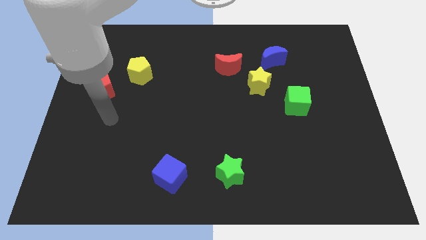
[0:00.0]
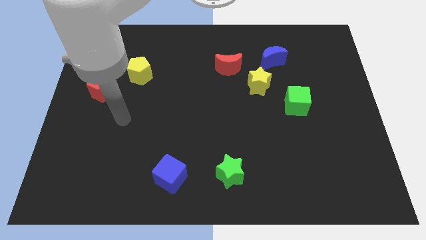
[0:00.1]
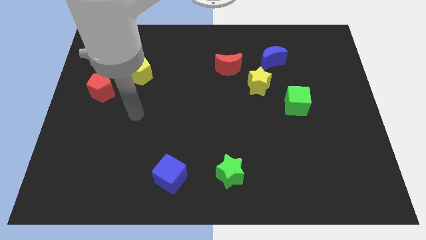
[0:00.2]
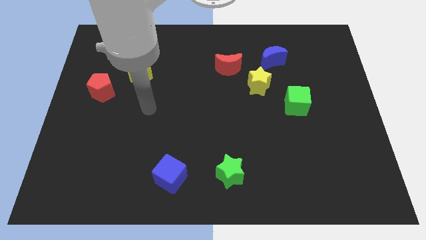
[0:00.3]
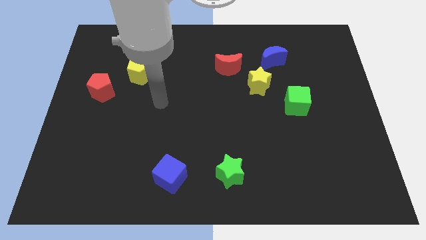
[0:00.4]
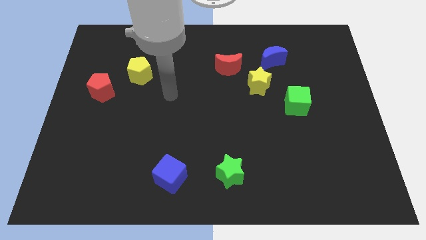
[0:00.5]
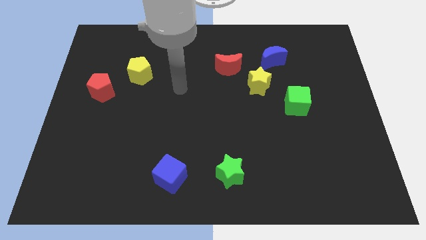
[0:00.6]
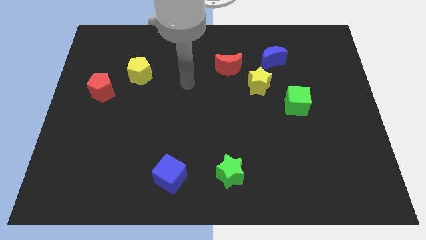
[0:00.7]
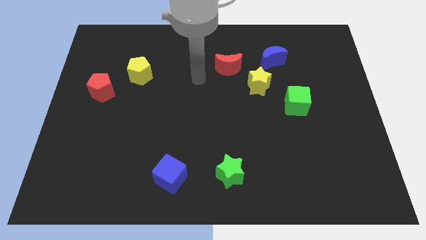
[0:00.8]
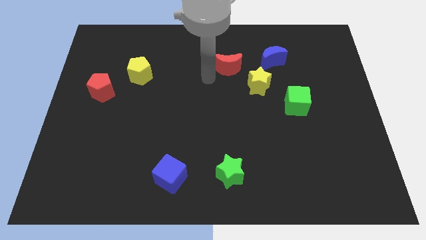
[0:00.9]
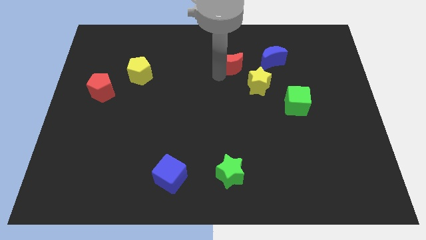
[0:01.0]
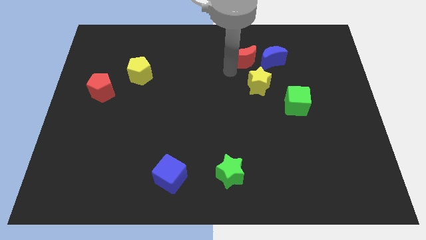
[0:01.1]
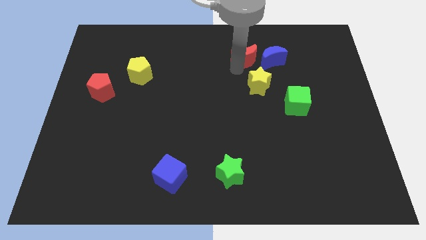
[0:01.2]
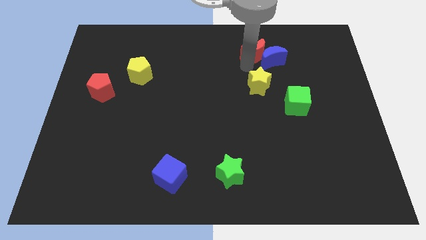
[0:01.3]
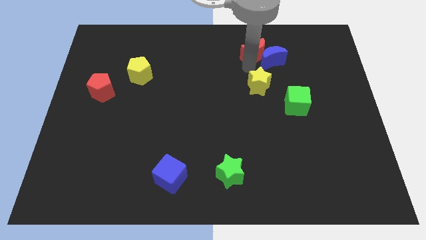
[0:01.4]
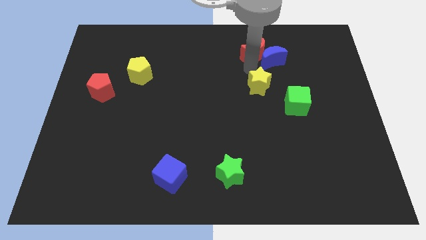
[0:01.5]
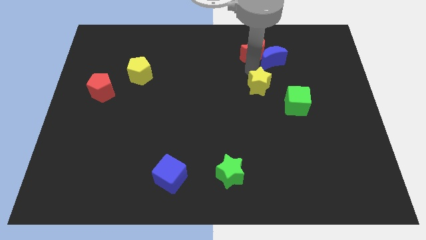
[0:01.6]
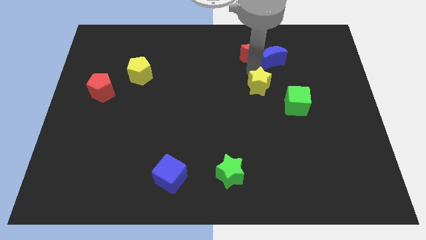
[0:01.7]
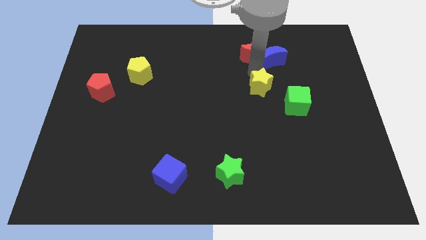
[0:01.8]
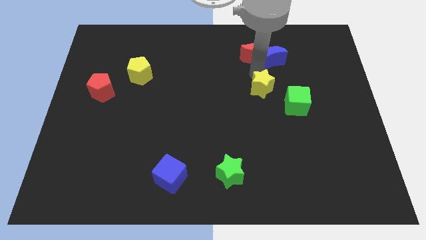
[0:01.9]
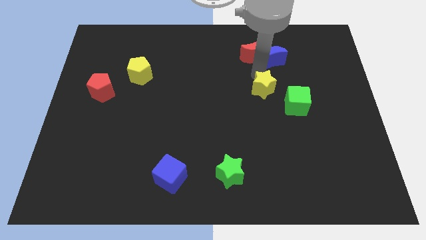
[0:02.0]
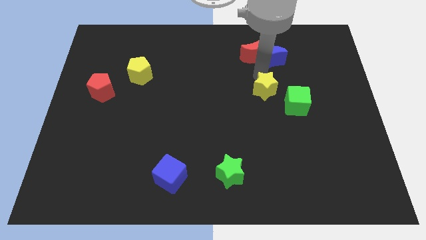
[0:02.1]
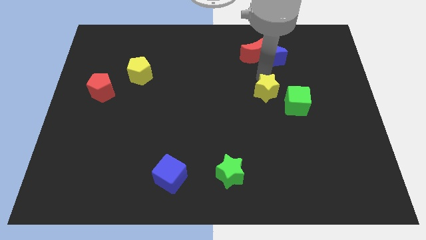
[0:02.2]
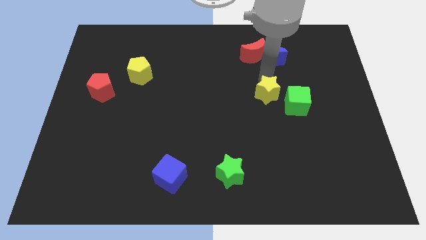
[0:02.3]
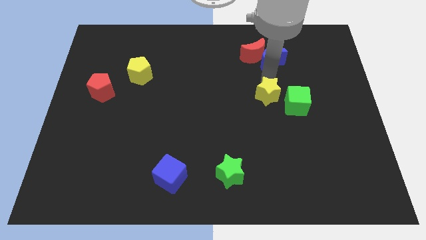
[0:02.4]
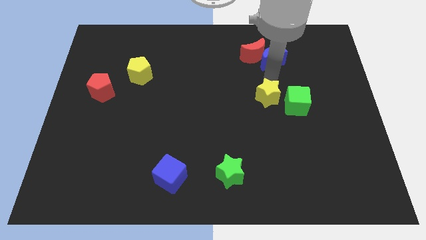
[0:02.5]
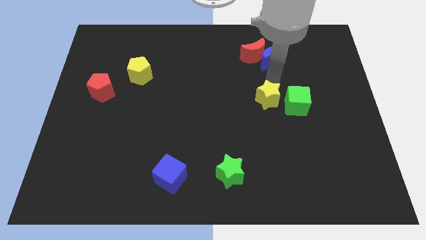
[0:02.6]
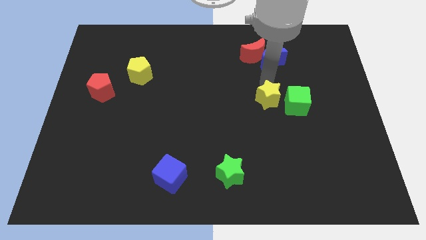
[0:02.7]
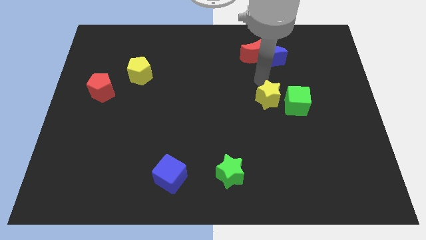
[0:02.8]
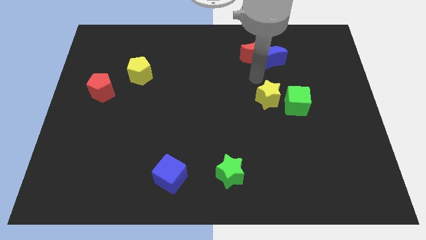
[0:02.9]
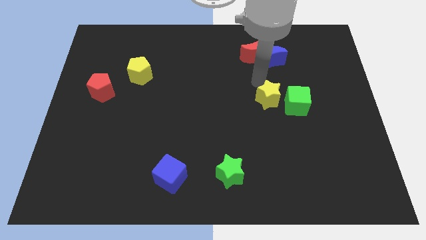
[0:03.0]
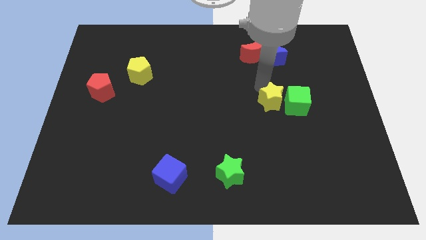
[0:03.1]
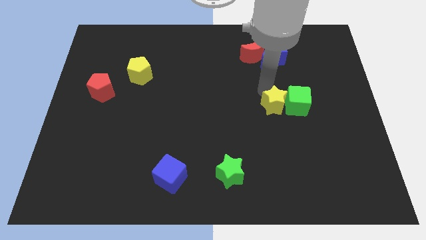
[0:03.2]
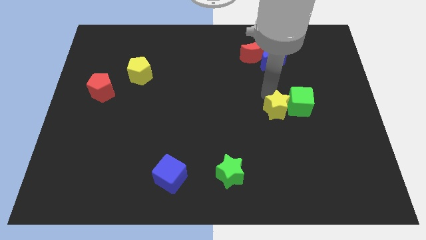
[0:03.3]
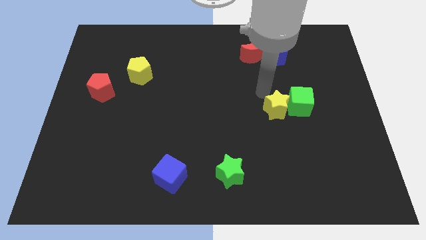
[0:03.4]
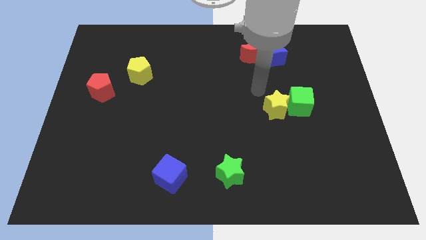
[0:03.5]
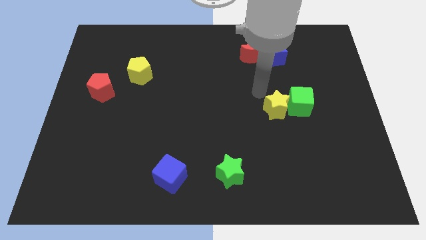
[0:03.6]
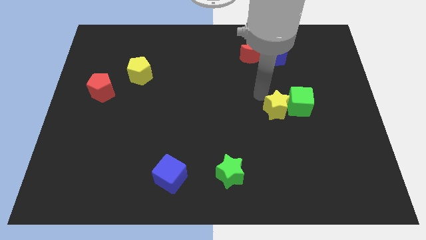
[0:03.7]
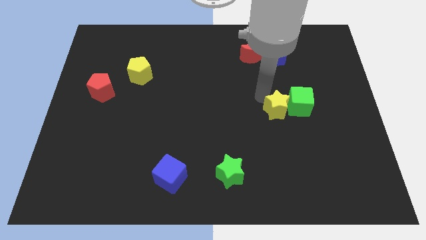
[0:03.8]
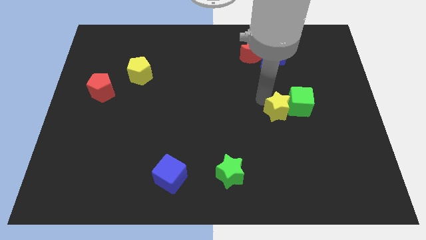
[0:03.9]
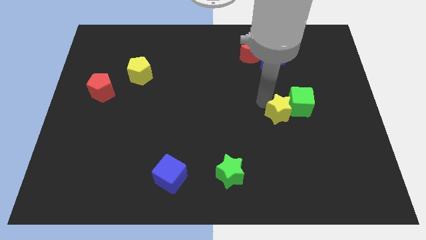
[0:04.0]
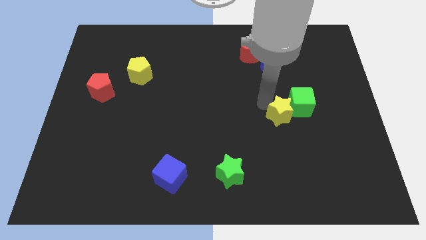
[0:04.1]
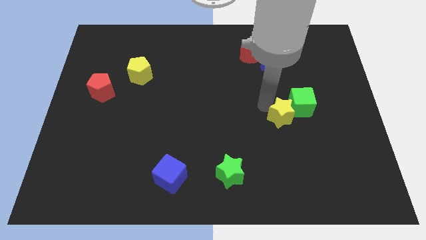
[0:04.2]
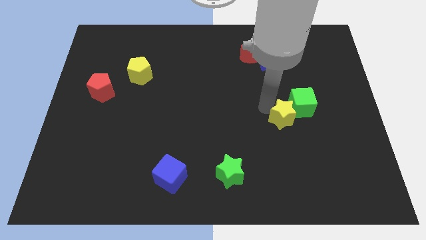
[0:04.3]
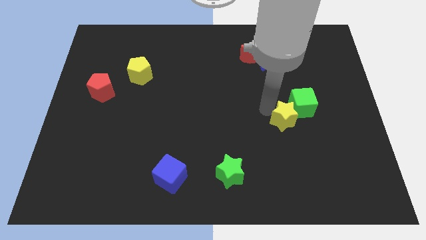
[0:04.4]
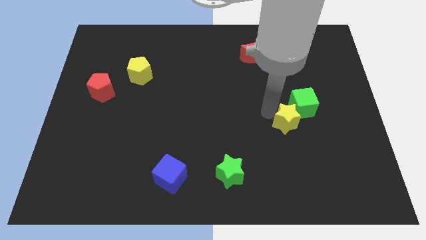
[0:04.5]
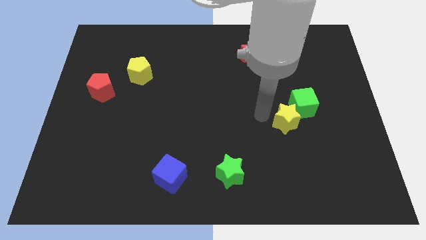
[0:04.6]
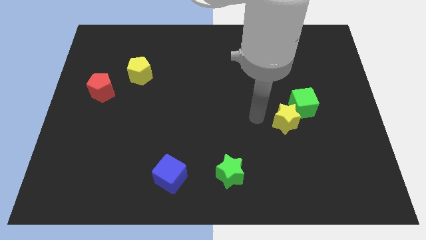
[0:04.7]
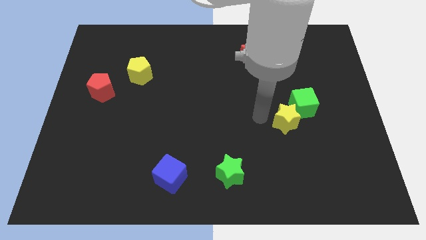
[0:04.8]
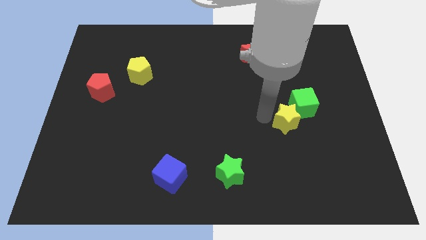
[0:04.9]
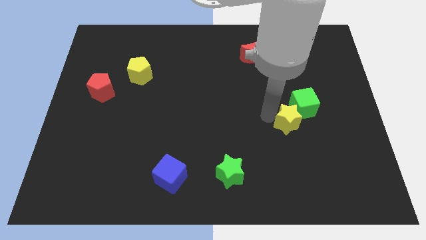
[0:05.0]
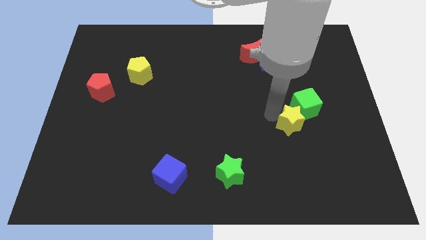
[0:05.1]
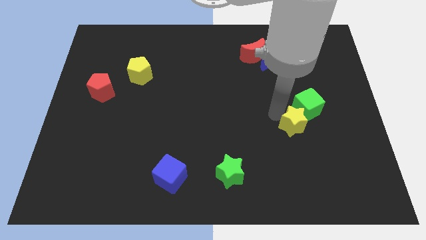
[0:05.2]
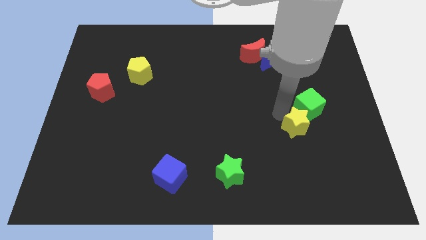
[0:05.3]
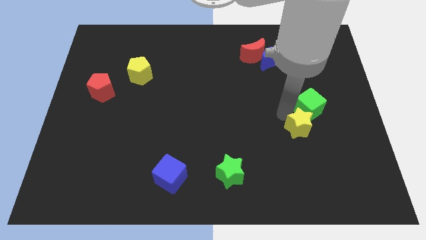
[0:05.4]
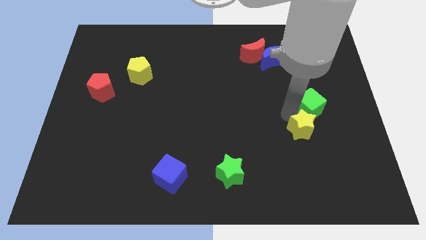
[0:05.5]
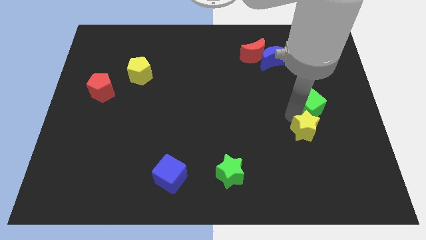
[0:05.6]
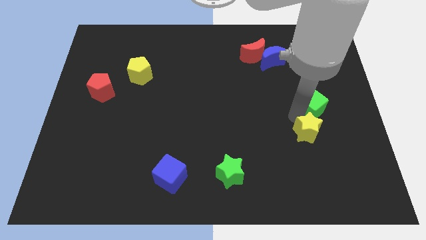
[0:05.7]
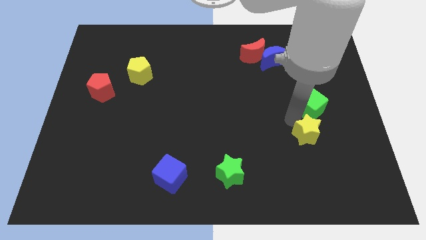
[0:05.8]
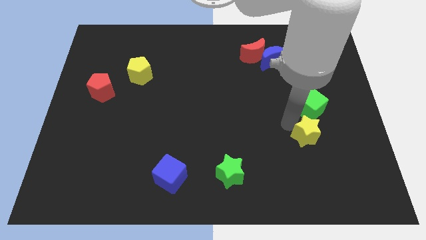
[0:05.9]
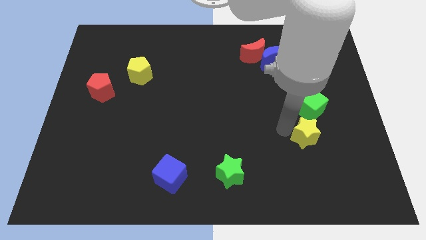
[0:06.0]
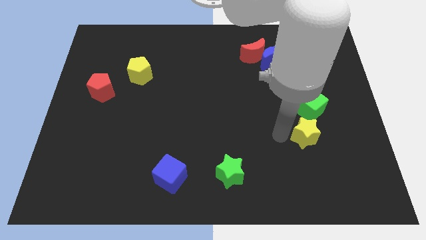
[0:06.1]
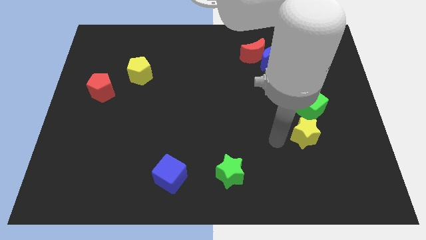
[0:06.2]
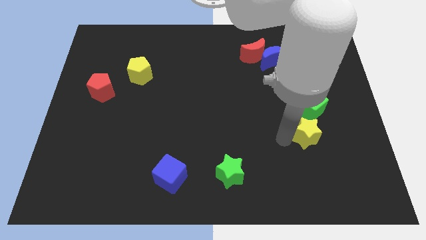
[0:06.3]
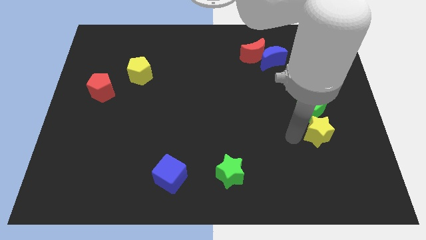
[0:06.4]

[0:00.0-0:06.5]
push the yellow star diagonally down and to the right of the green cube

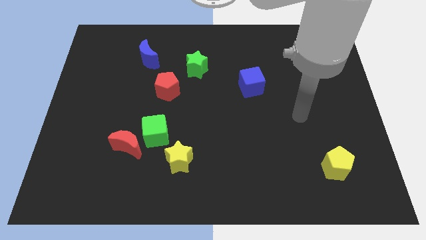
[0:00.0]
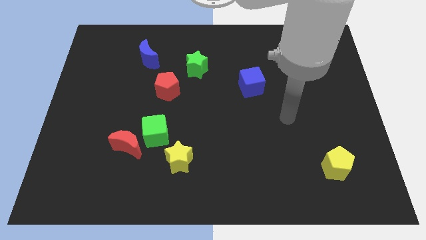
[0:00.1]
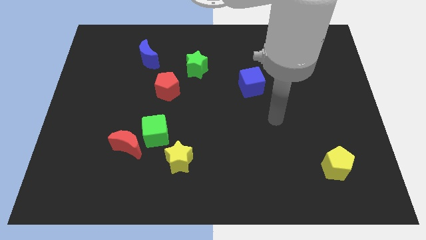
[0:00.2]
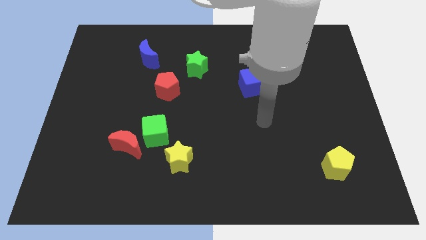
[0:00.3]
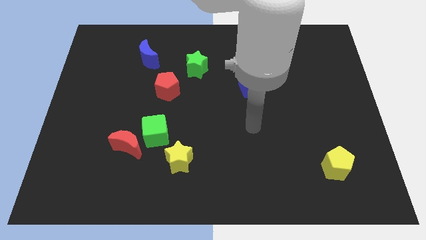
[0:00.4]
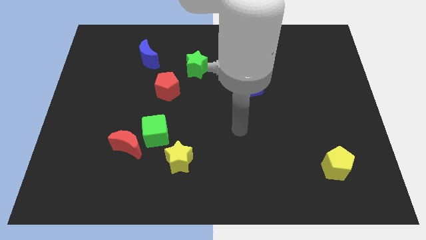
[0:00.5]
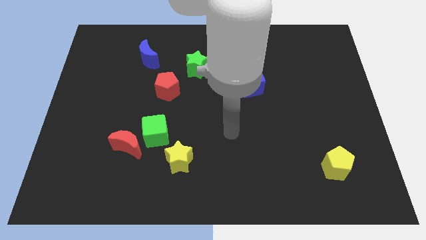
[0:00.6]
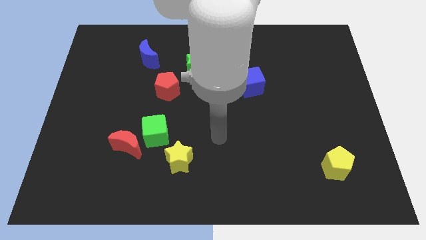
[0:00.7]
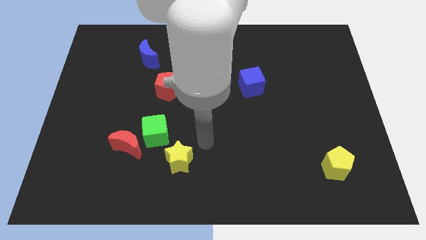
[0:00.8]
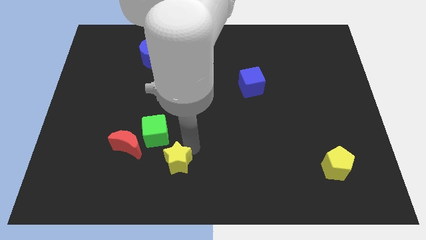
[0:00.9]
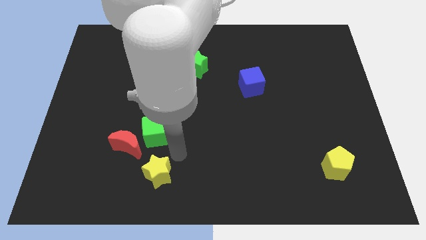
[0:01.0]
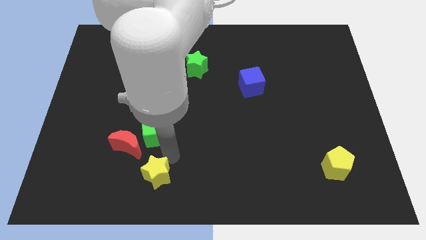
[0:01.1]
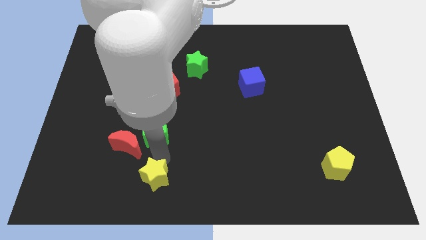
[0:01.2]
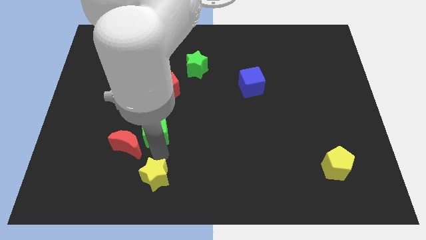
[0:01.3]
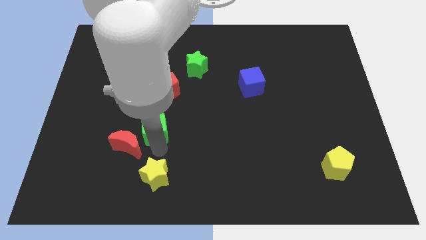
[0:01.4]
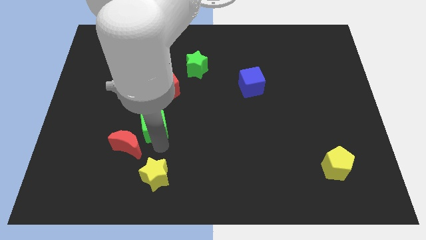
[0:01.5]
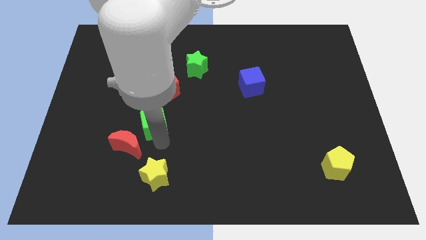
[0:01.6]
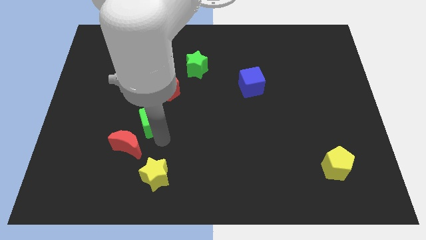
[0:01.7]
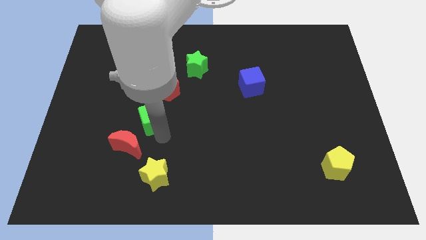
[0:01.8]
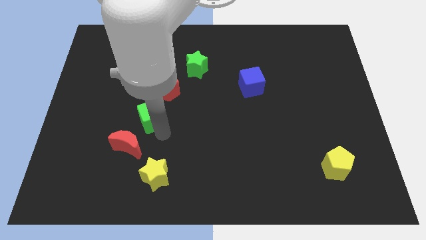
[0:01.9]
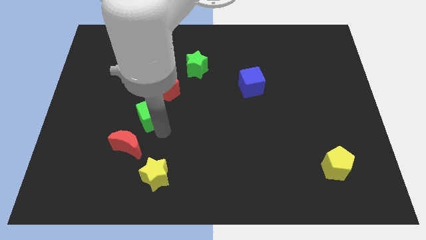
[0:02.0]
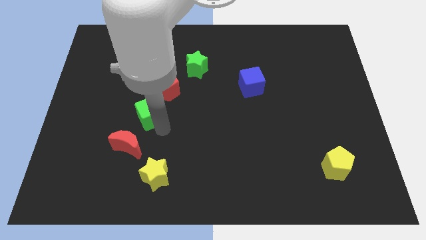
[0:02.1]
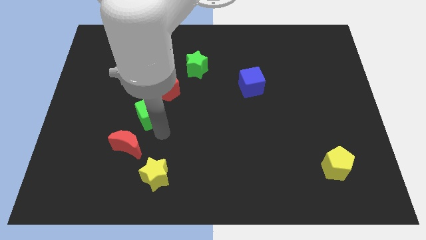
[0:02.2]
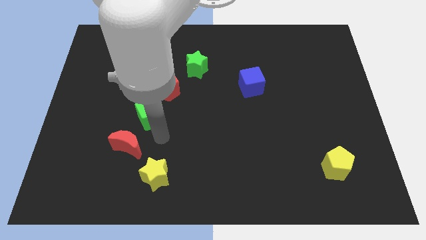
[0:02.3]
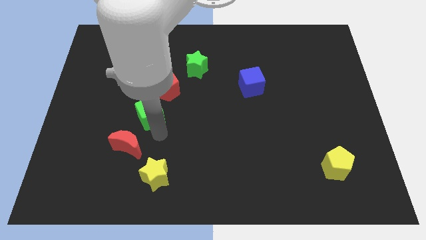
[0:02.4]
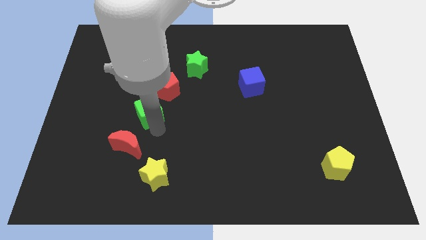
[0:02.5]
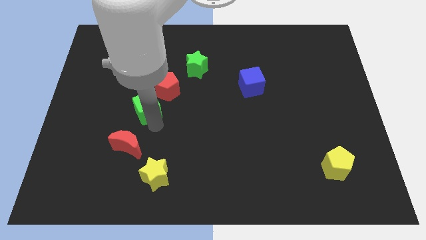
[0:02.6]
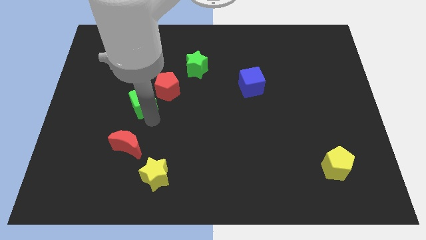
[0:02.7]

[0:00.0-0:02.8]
move the green cube below the blue moon
